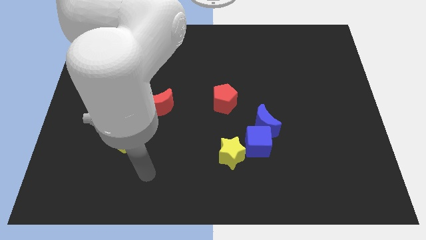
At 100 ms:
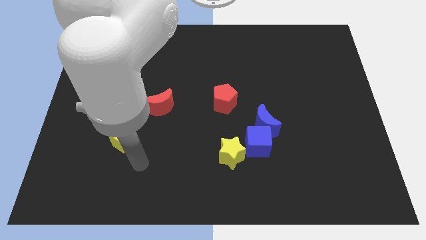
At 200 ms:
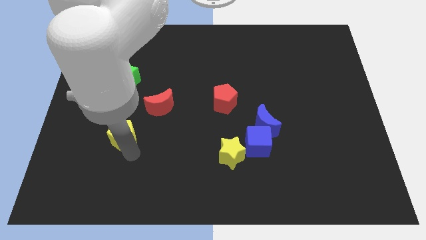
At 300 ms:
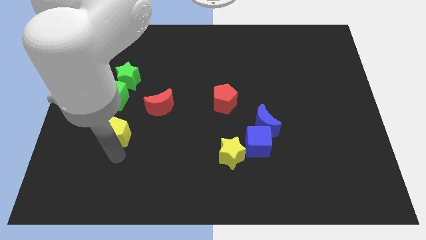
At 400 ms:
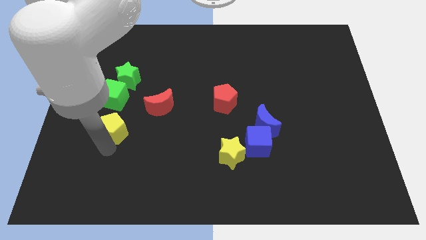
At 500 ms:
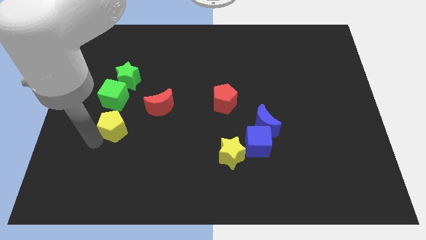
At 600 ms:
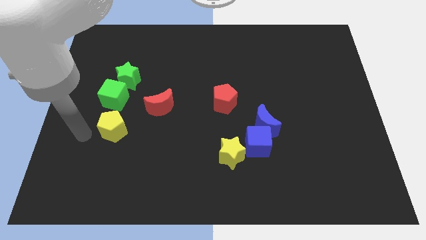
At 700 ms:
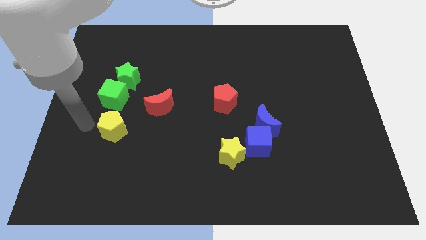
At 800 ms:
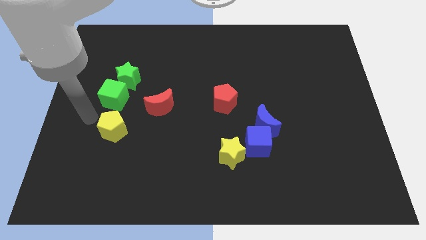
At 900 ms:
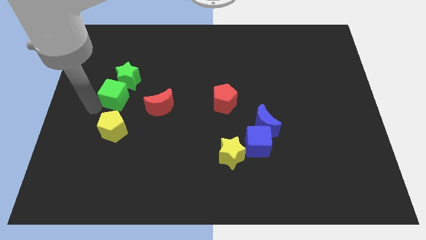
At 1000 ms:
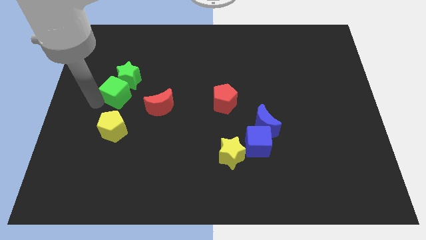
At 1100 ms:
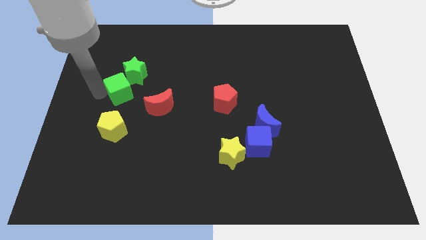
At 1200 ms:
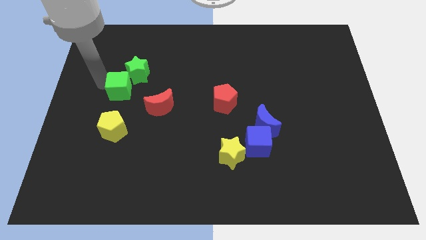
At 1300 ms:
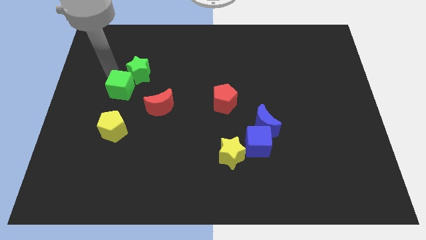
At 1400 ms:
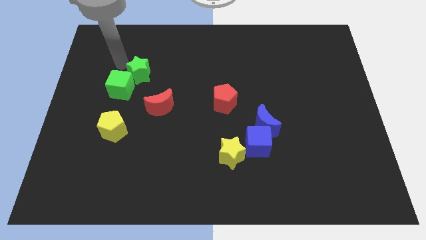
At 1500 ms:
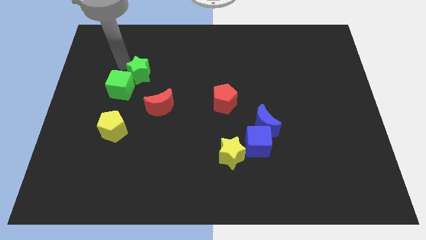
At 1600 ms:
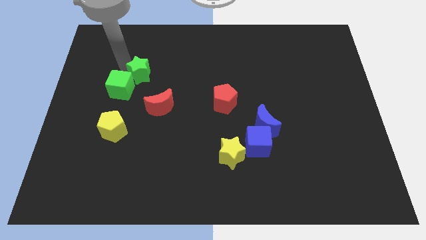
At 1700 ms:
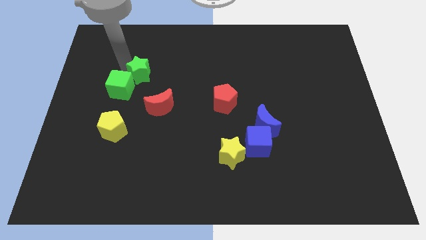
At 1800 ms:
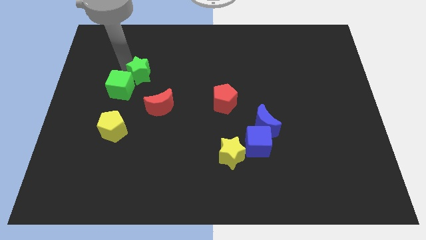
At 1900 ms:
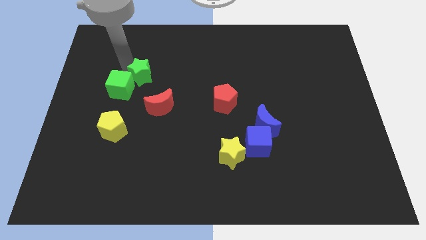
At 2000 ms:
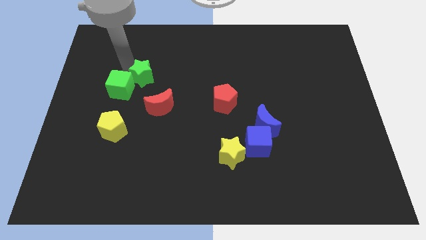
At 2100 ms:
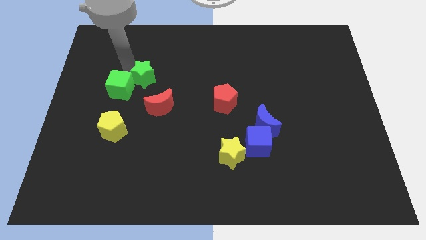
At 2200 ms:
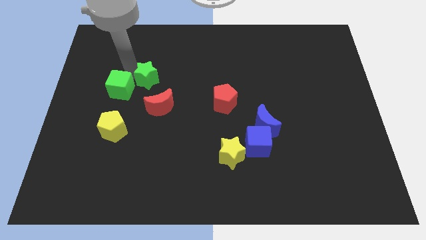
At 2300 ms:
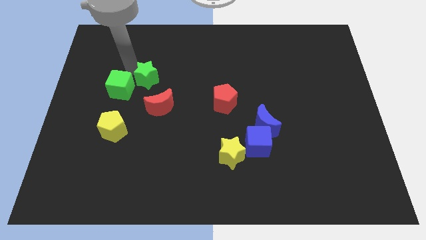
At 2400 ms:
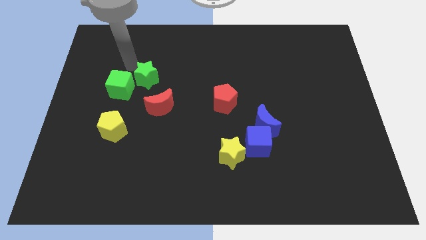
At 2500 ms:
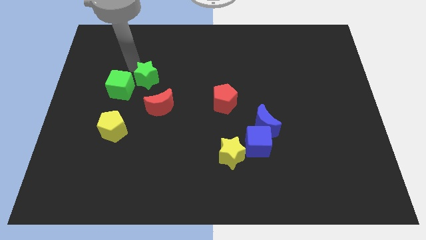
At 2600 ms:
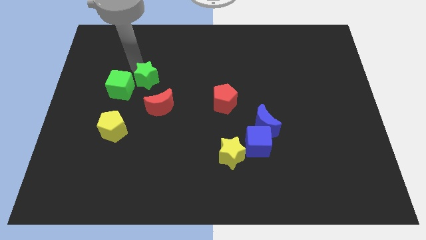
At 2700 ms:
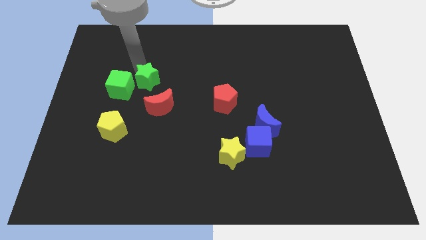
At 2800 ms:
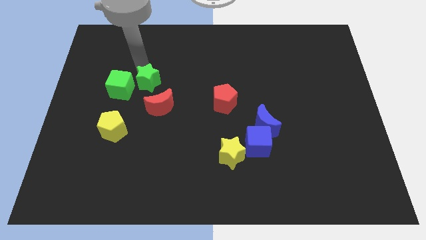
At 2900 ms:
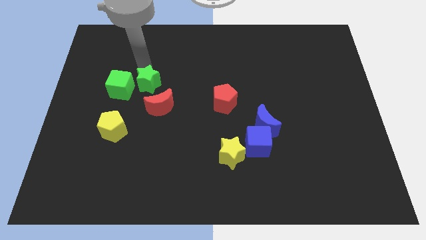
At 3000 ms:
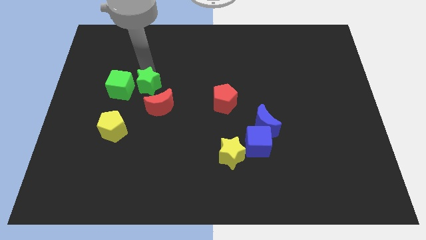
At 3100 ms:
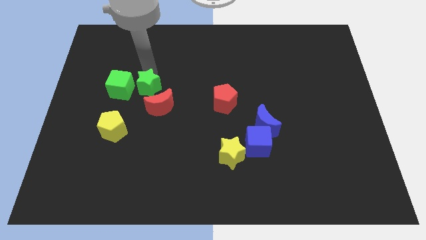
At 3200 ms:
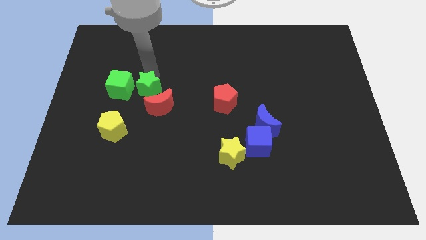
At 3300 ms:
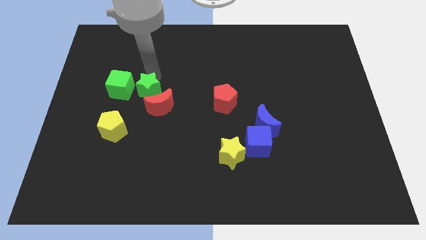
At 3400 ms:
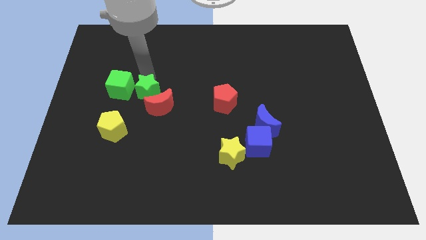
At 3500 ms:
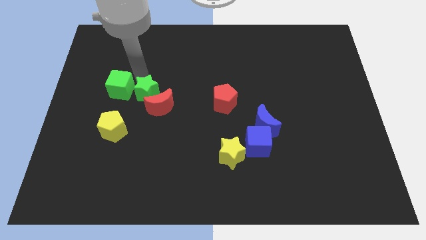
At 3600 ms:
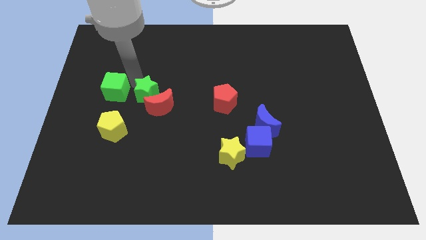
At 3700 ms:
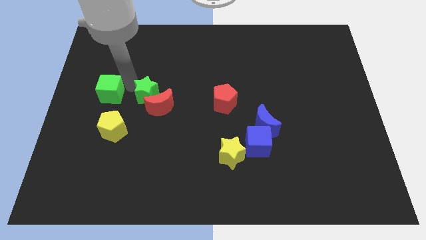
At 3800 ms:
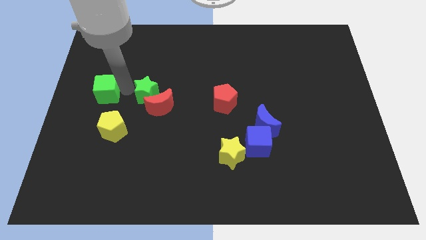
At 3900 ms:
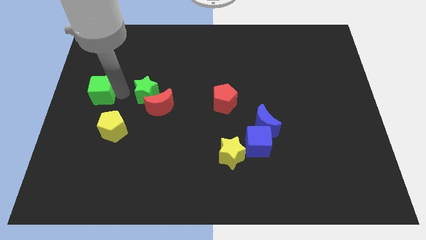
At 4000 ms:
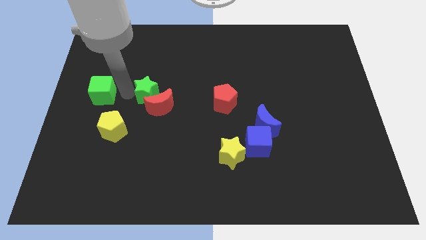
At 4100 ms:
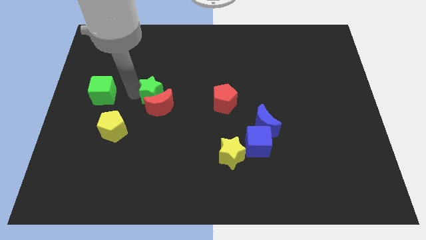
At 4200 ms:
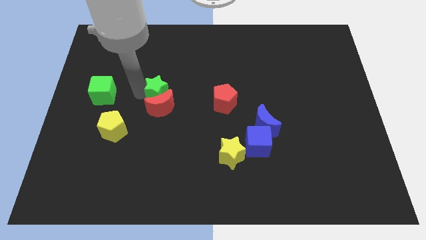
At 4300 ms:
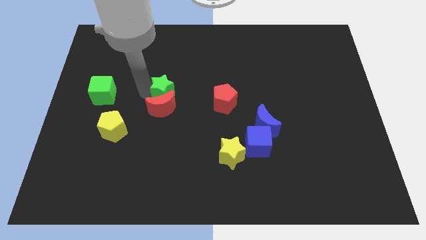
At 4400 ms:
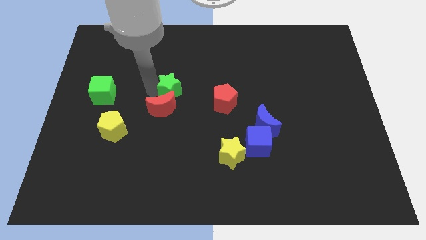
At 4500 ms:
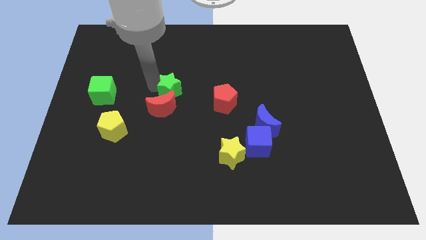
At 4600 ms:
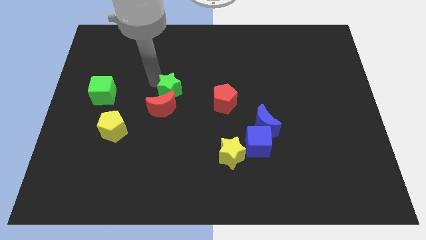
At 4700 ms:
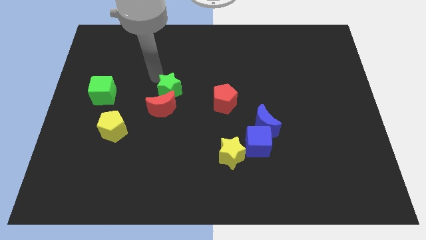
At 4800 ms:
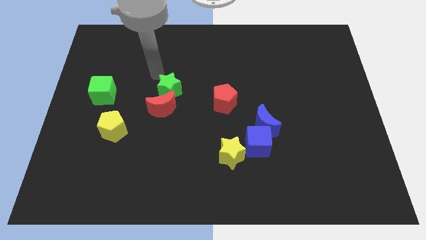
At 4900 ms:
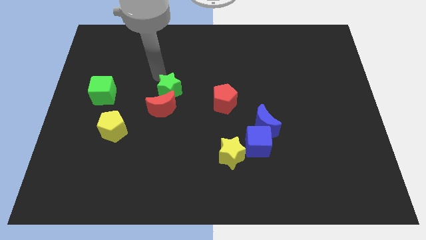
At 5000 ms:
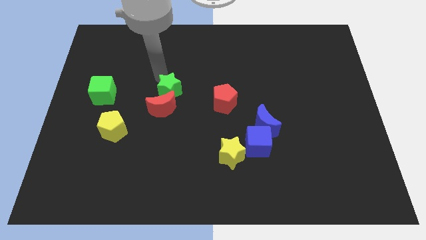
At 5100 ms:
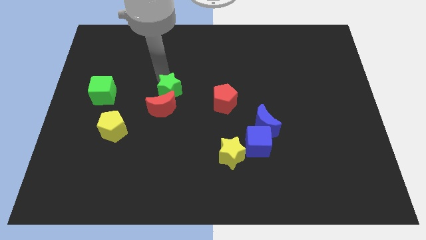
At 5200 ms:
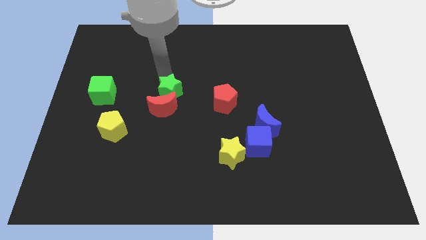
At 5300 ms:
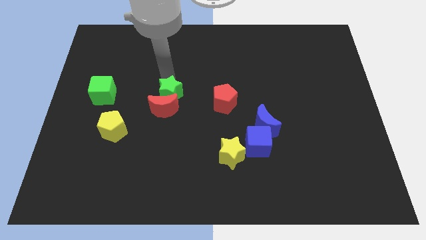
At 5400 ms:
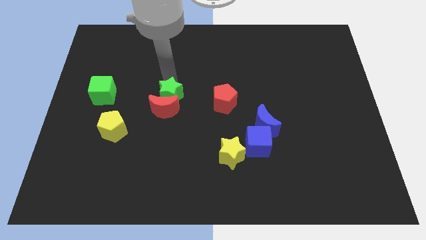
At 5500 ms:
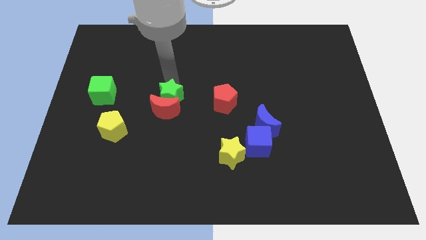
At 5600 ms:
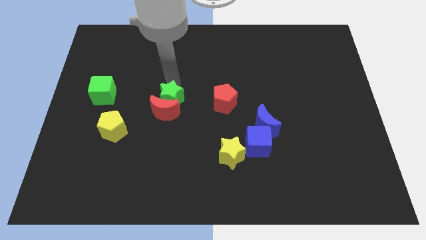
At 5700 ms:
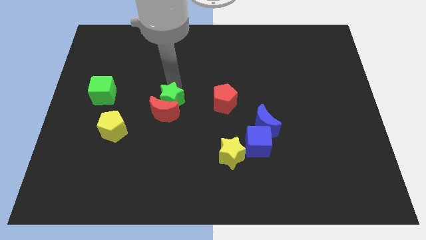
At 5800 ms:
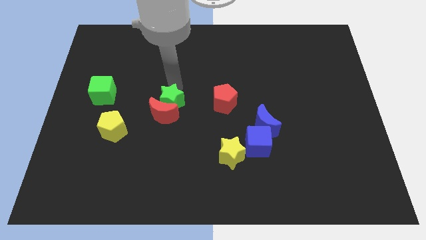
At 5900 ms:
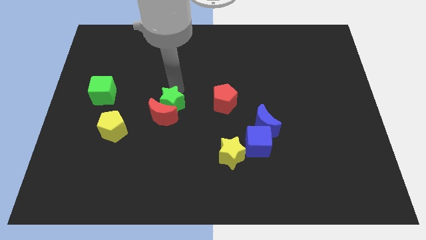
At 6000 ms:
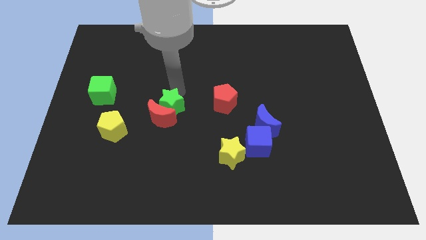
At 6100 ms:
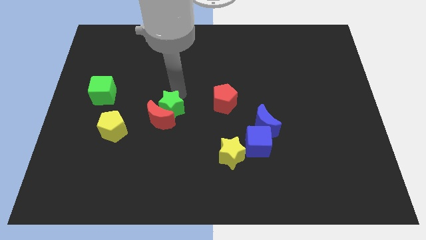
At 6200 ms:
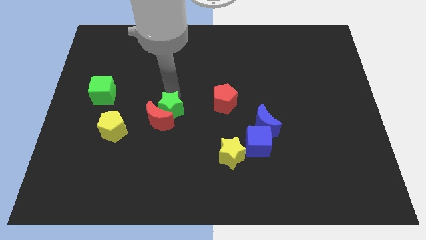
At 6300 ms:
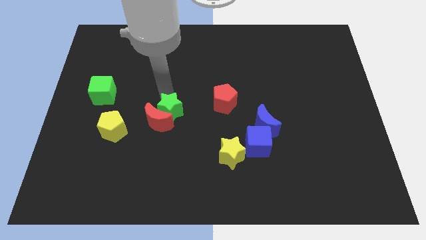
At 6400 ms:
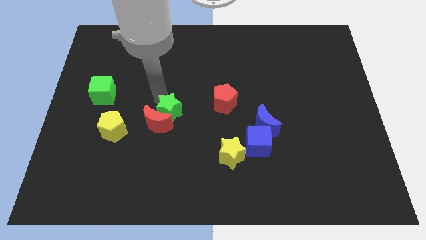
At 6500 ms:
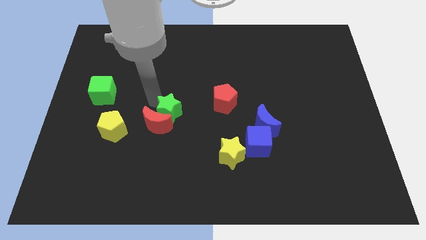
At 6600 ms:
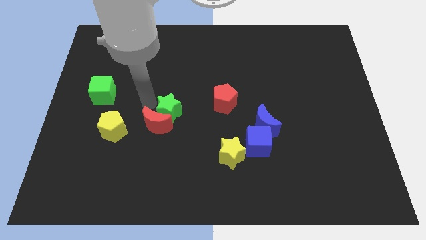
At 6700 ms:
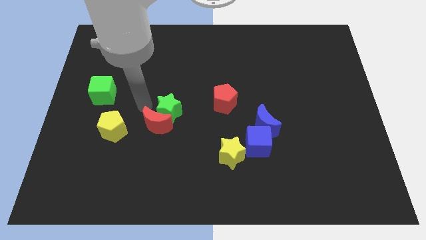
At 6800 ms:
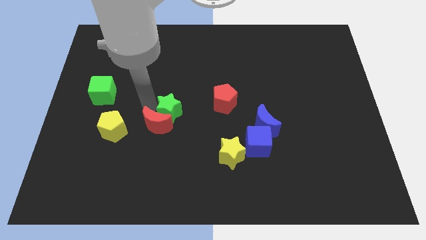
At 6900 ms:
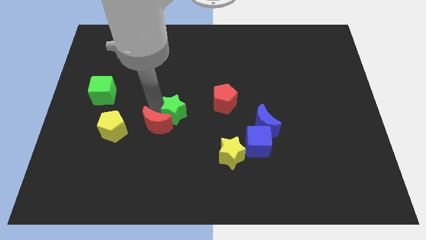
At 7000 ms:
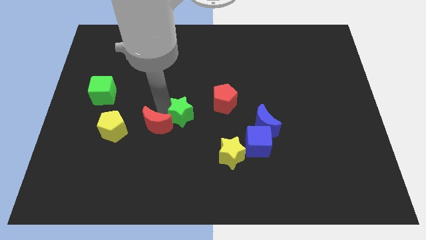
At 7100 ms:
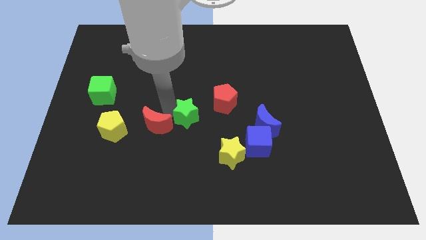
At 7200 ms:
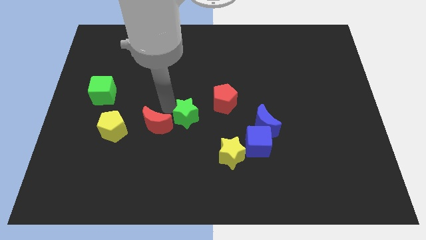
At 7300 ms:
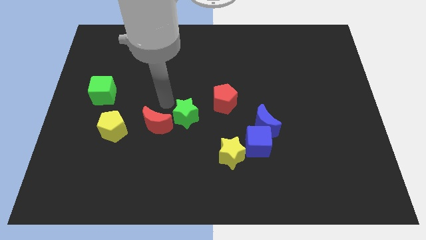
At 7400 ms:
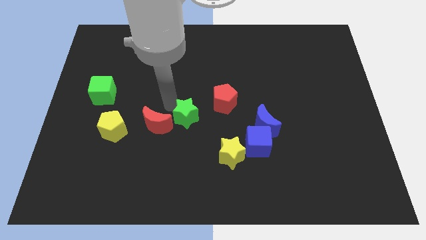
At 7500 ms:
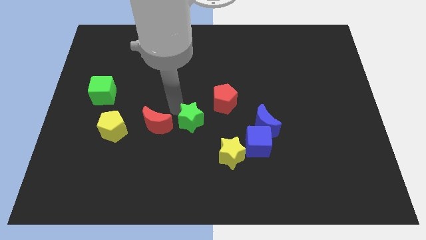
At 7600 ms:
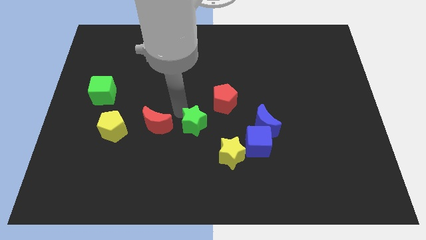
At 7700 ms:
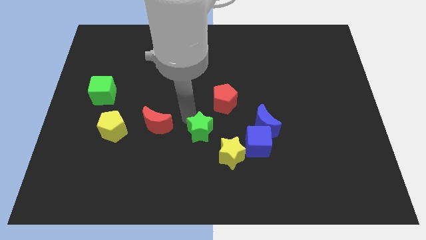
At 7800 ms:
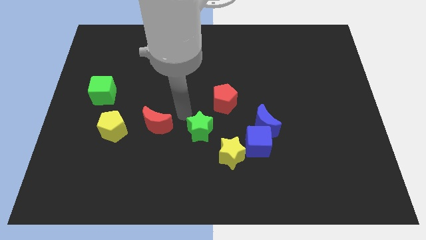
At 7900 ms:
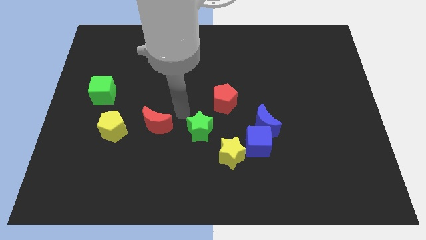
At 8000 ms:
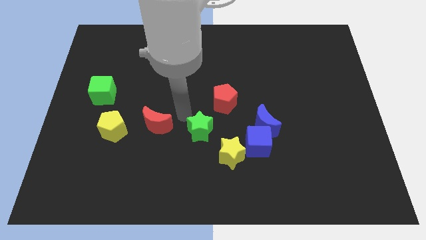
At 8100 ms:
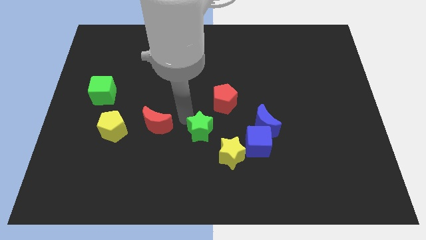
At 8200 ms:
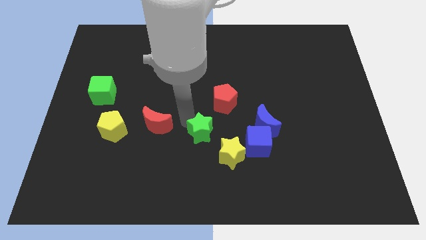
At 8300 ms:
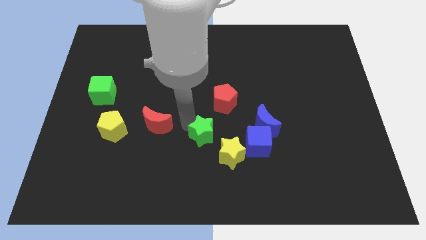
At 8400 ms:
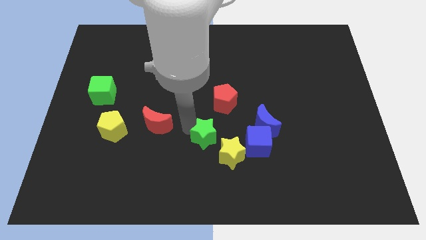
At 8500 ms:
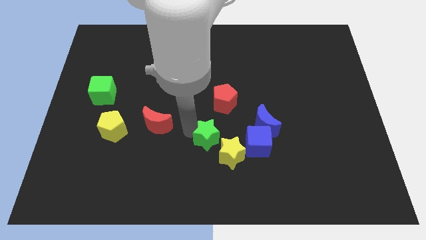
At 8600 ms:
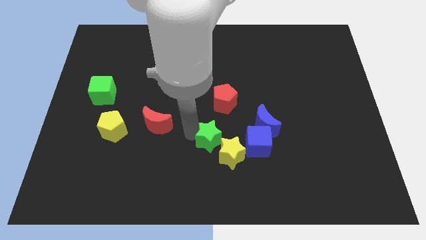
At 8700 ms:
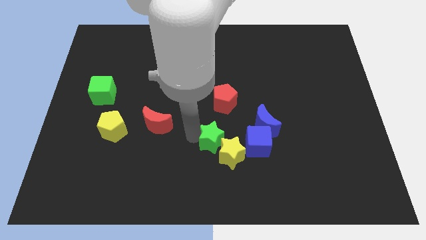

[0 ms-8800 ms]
slide the green star next to the yellow star
